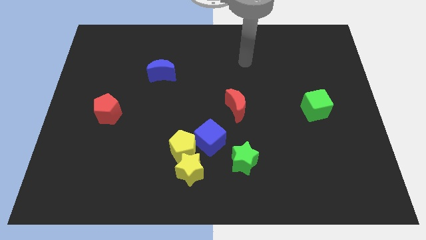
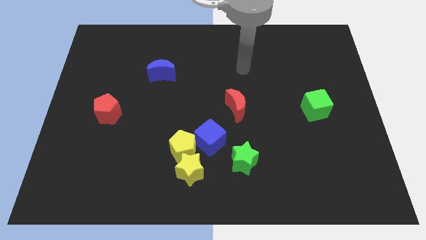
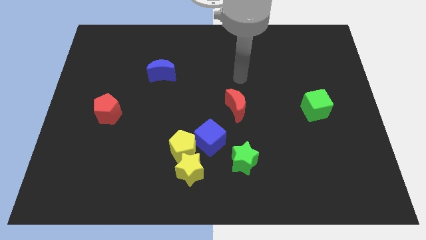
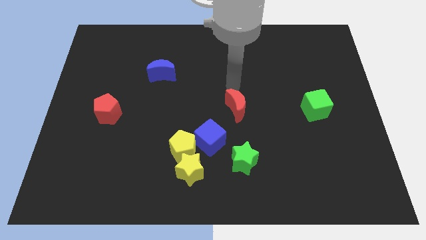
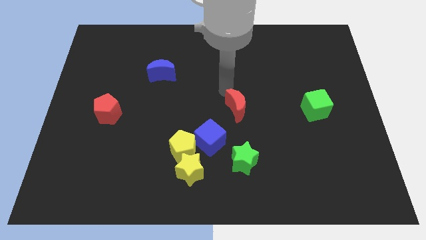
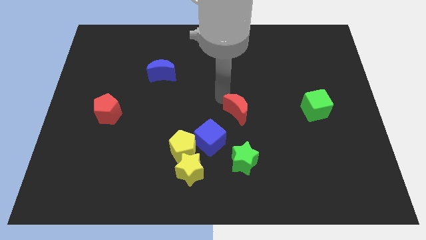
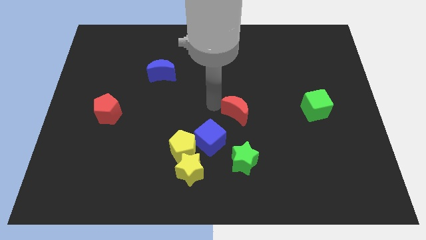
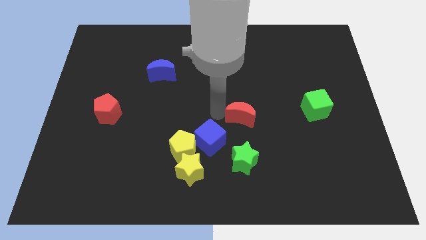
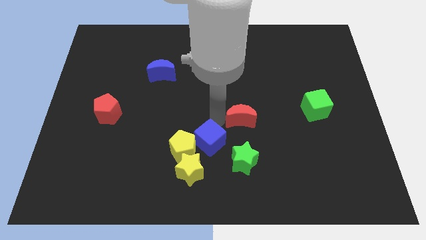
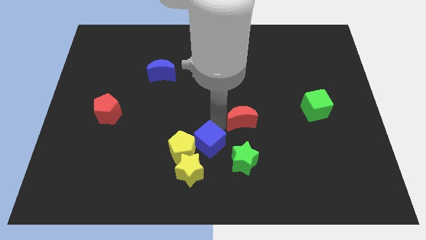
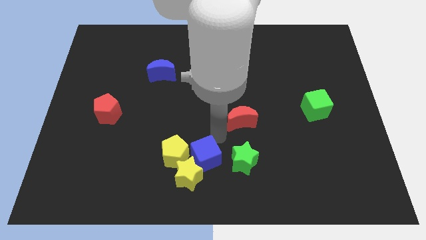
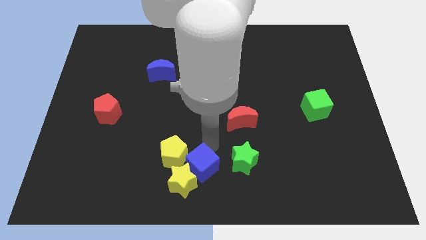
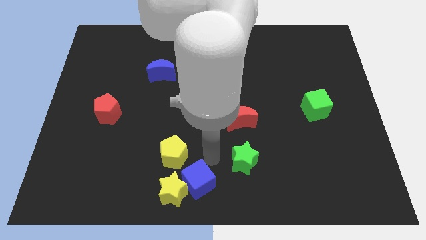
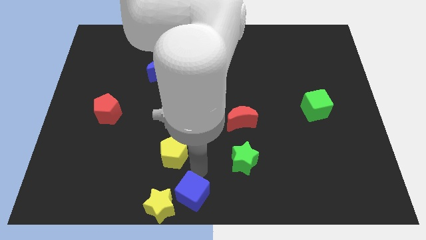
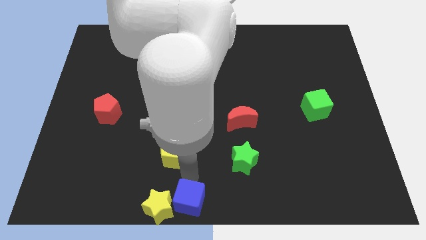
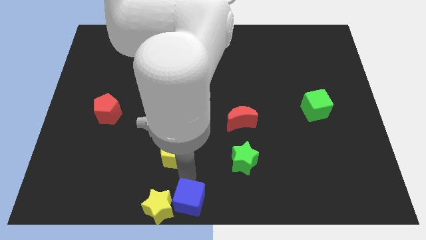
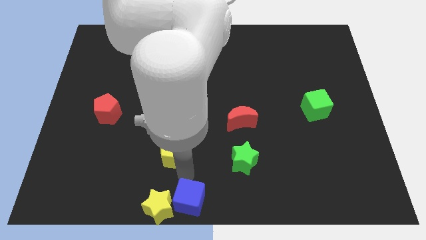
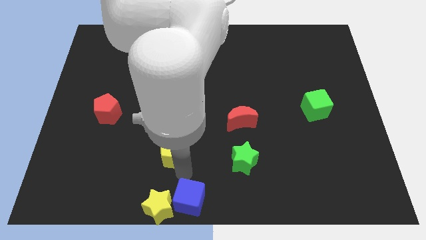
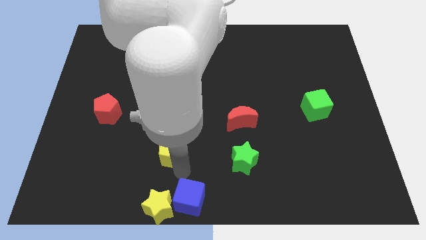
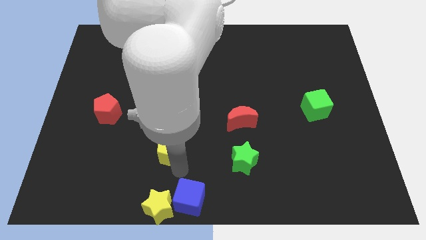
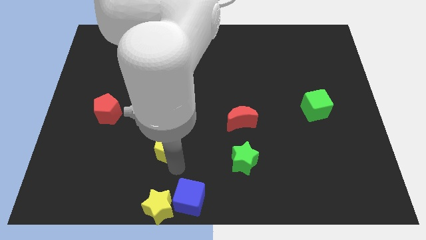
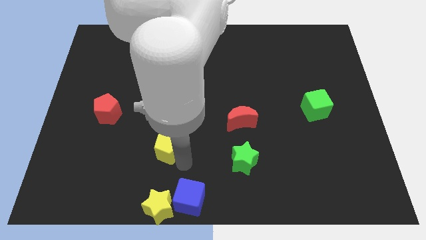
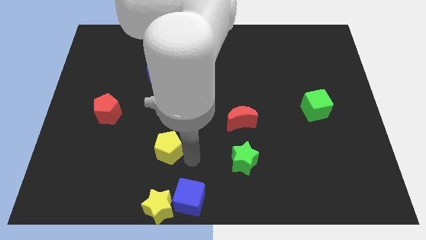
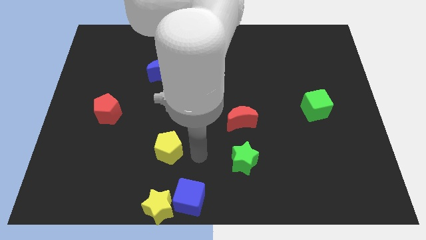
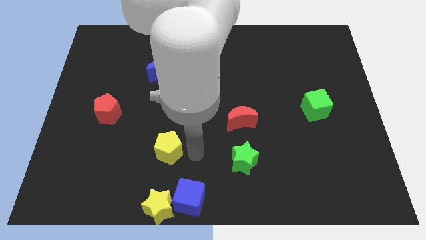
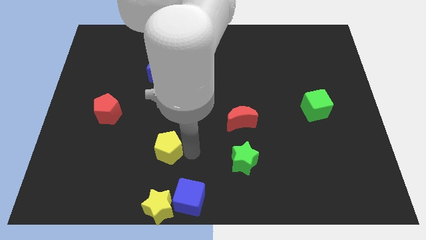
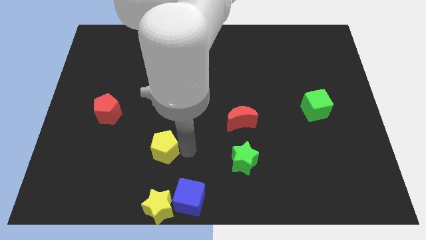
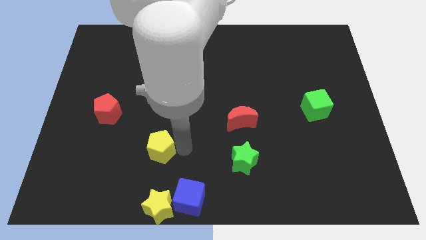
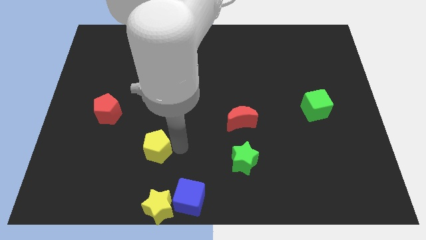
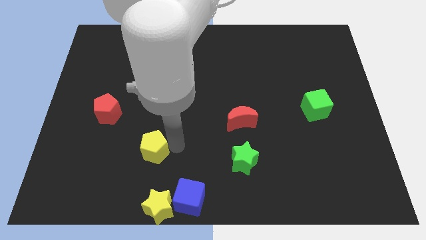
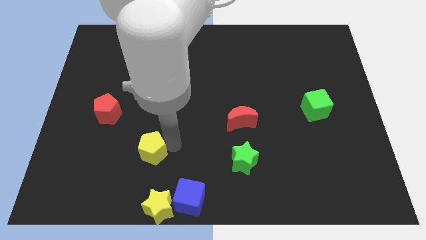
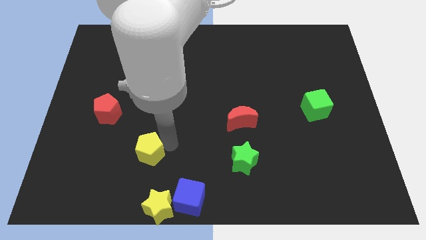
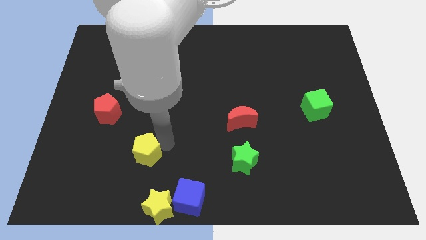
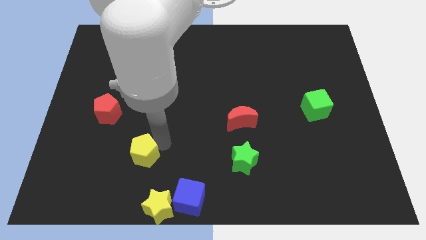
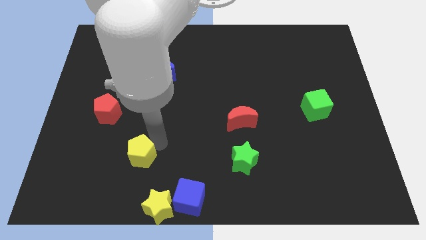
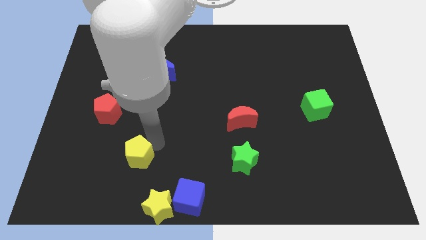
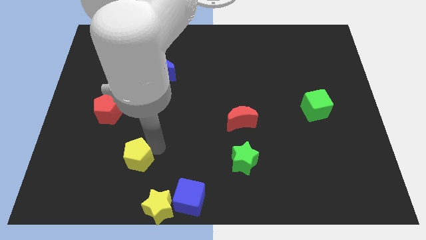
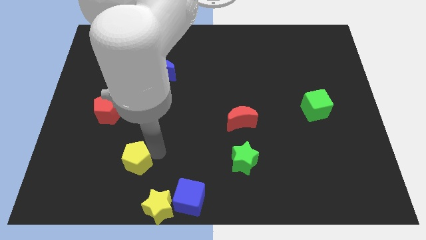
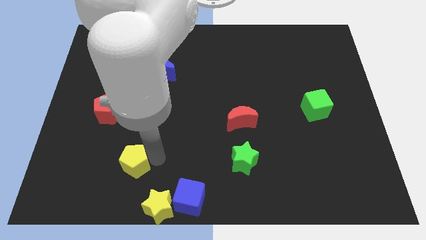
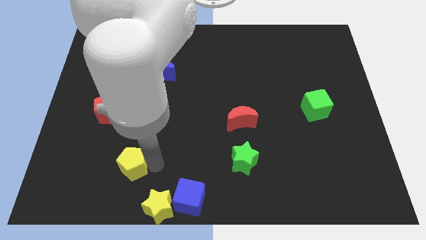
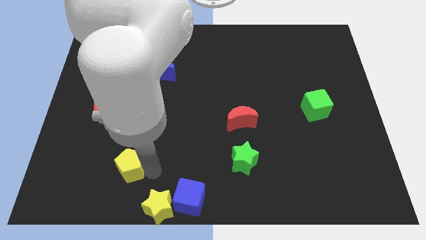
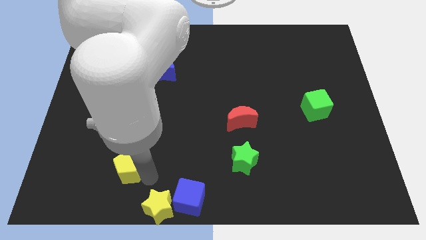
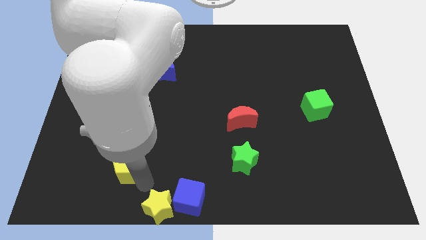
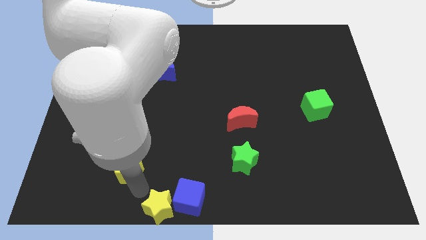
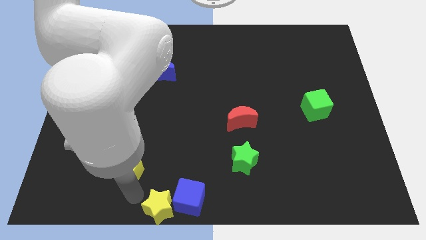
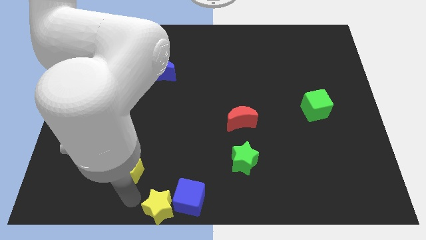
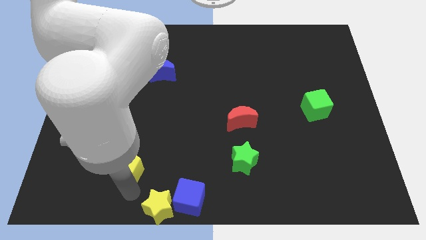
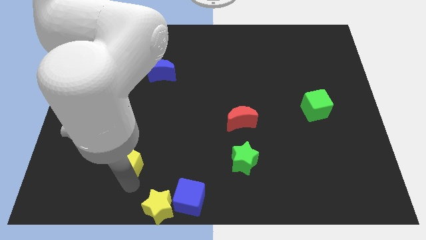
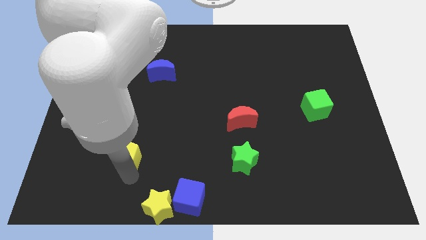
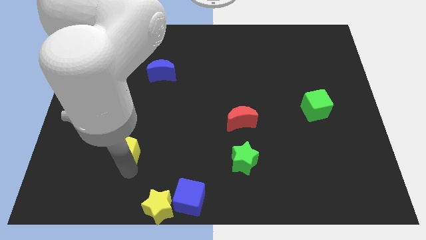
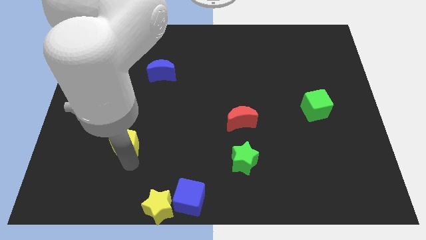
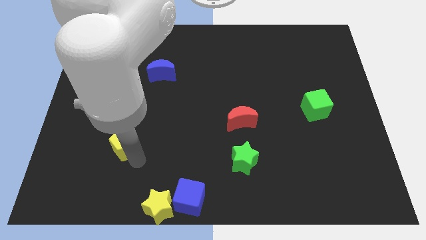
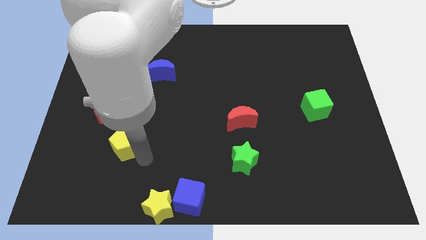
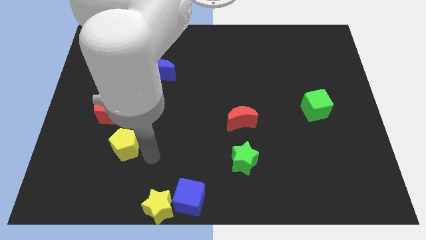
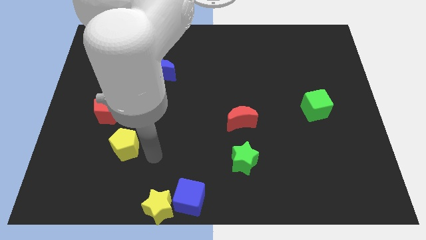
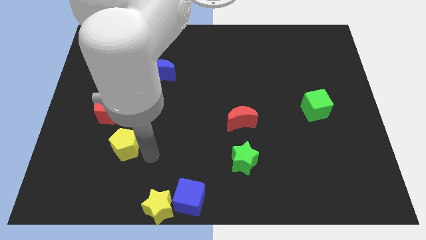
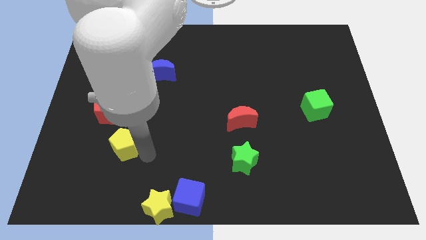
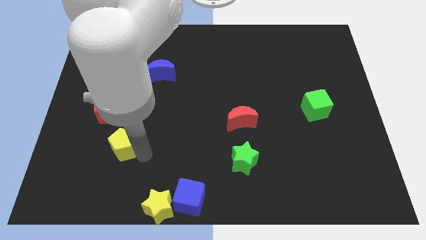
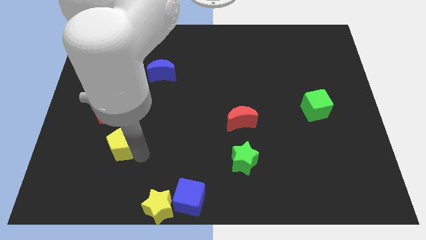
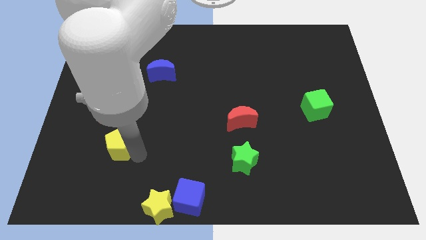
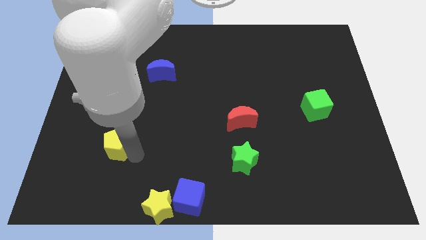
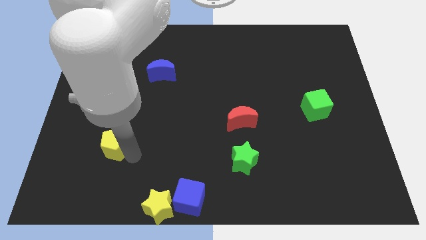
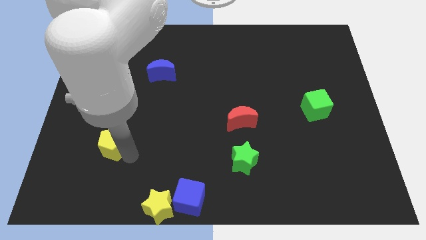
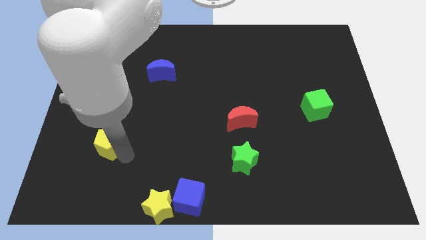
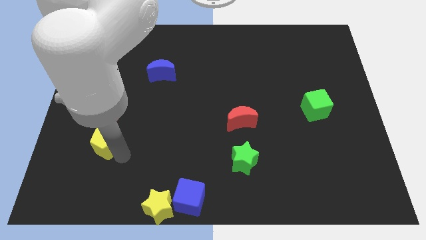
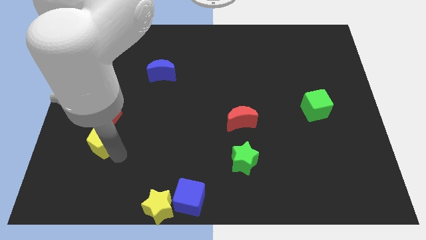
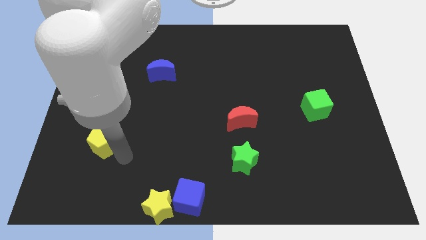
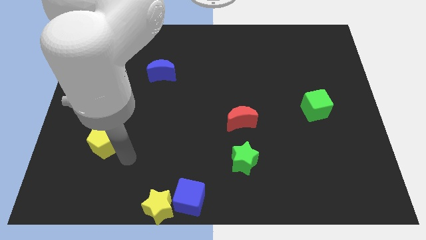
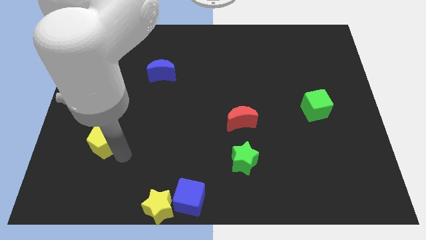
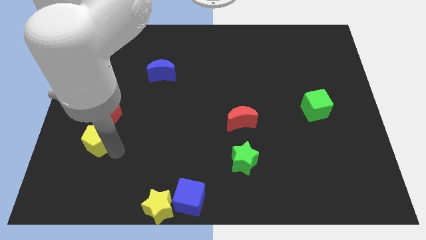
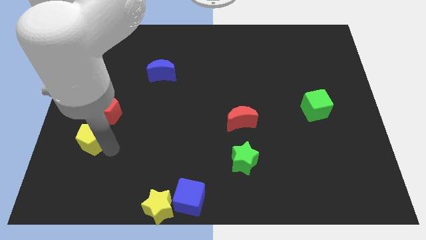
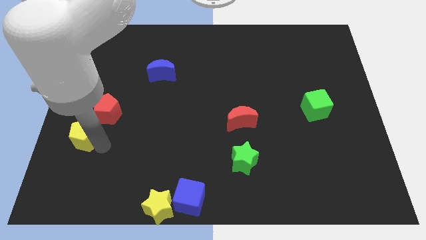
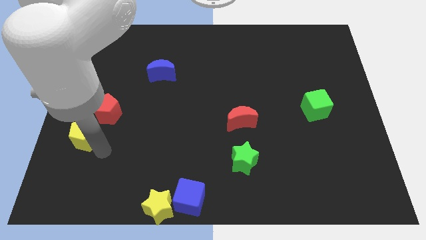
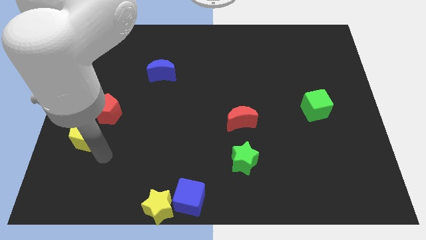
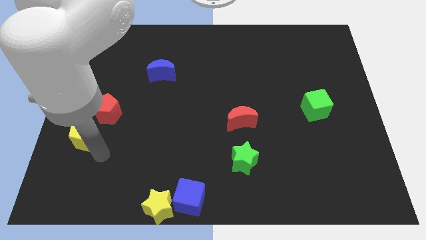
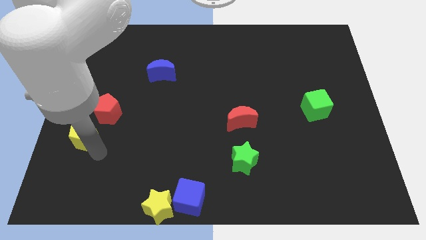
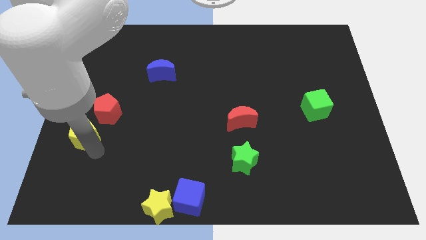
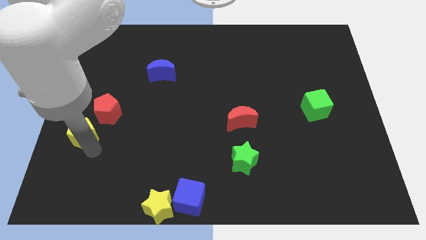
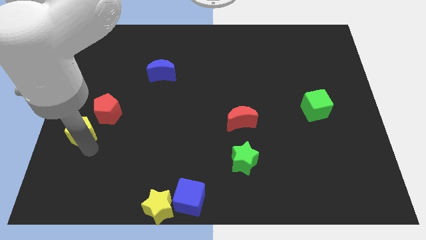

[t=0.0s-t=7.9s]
slide the yellow pentagon to the center left
